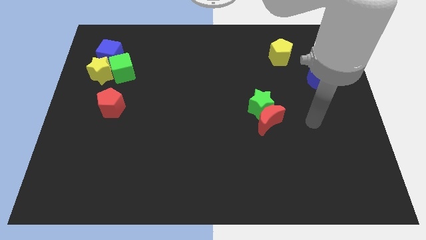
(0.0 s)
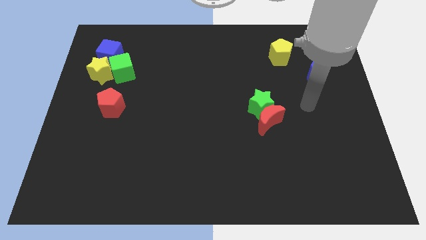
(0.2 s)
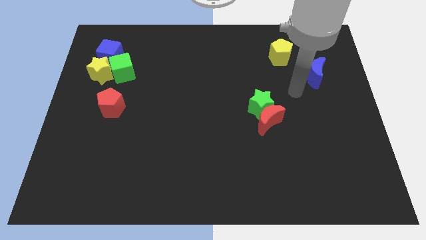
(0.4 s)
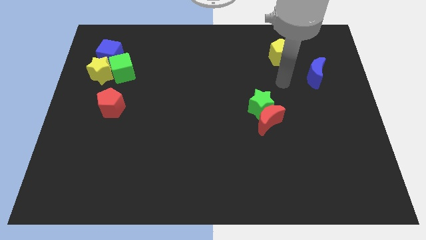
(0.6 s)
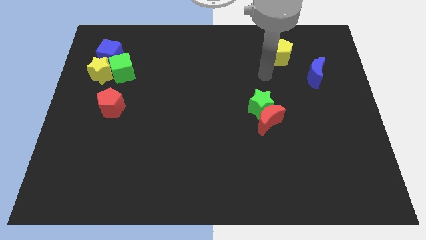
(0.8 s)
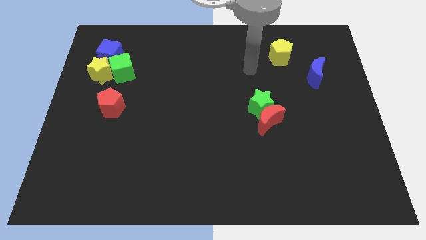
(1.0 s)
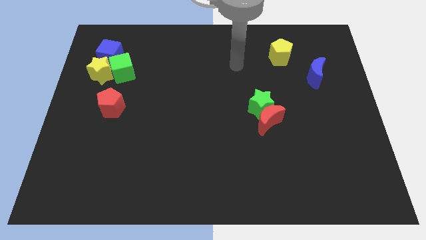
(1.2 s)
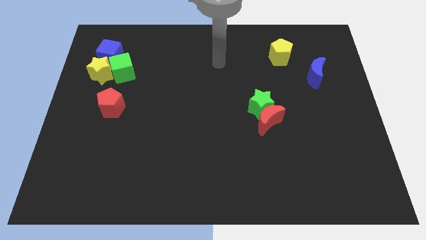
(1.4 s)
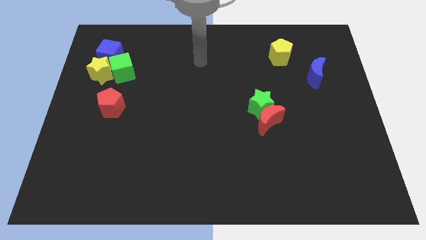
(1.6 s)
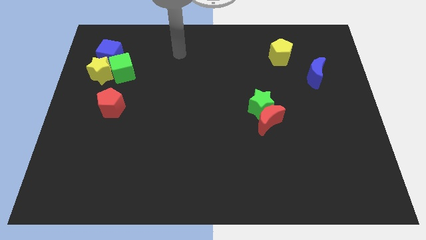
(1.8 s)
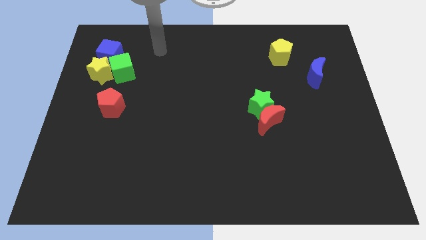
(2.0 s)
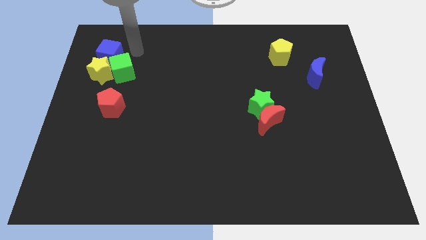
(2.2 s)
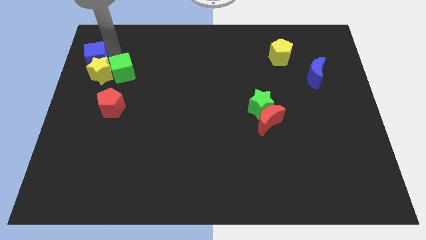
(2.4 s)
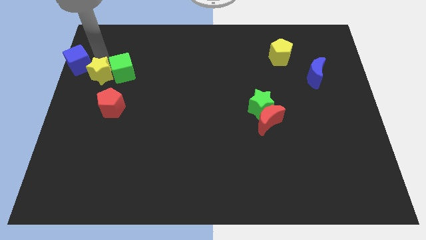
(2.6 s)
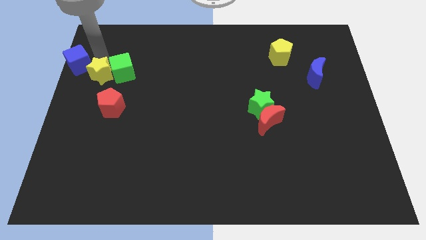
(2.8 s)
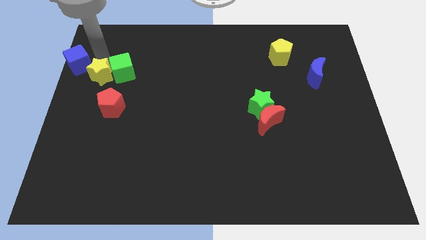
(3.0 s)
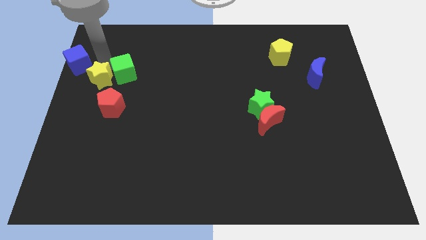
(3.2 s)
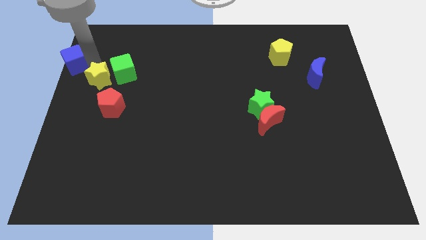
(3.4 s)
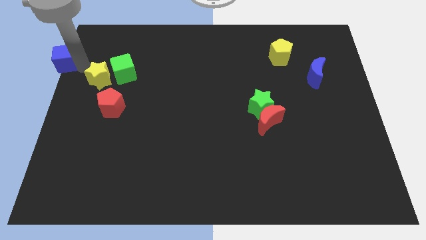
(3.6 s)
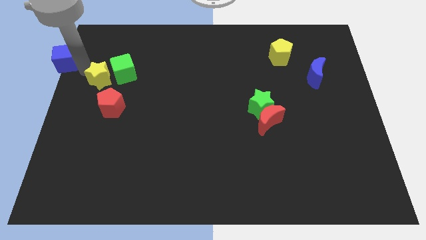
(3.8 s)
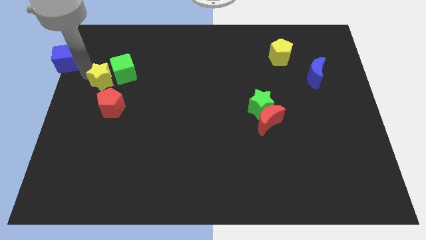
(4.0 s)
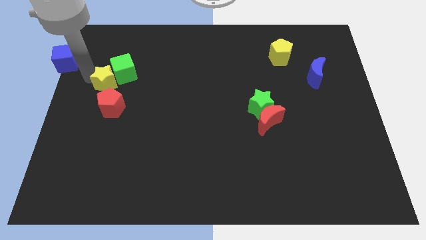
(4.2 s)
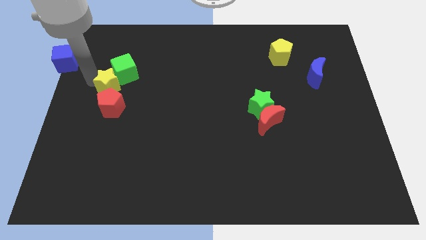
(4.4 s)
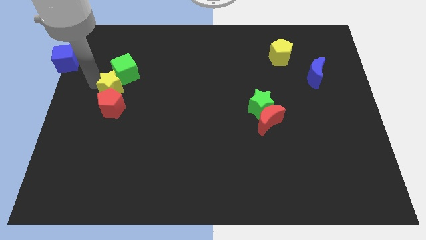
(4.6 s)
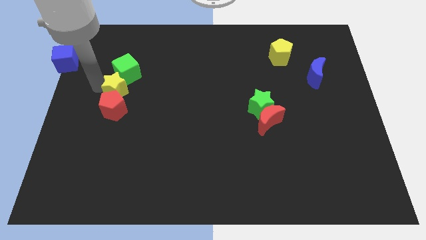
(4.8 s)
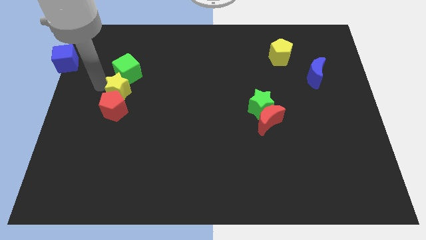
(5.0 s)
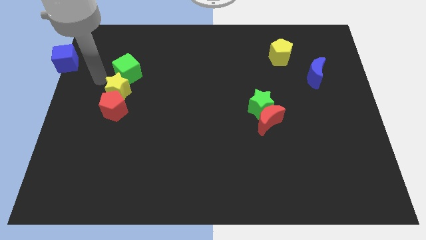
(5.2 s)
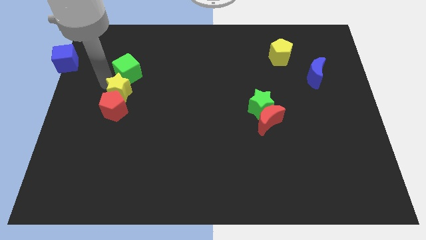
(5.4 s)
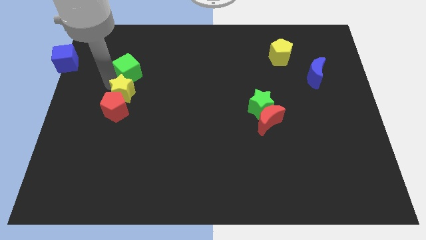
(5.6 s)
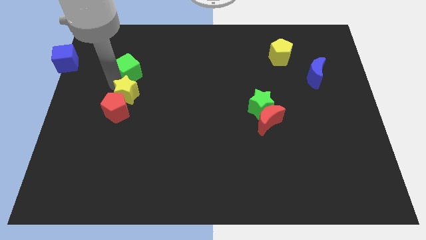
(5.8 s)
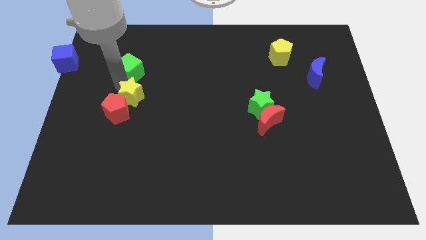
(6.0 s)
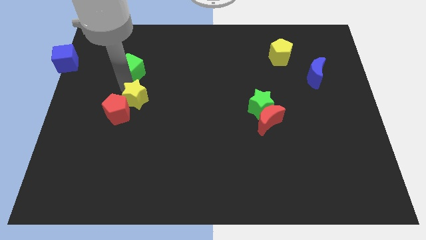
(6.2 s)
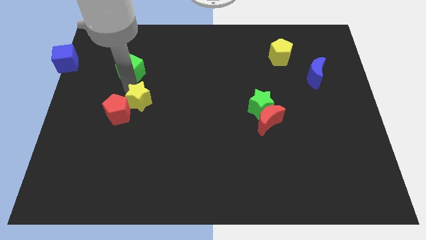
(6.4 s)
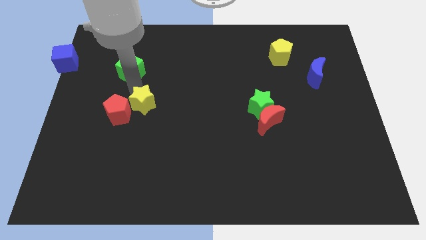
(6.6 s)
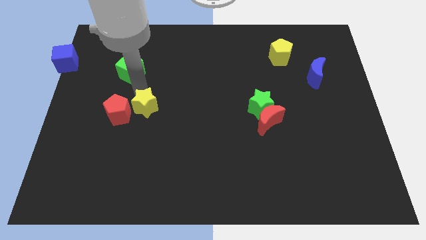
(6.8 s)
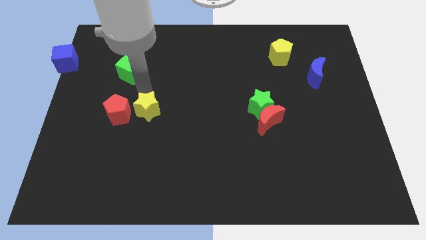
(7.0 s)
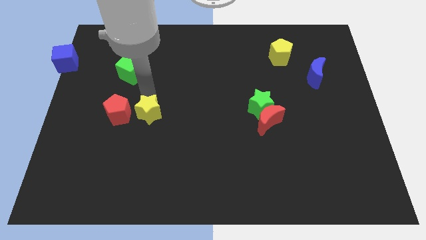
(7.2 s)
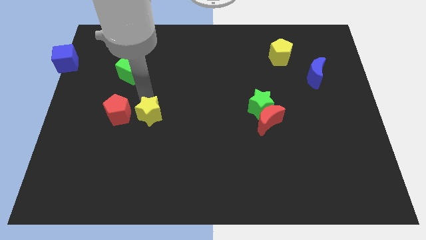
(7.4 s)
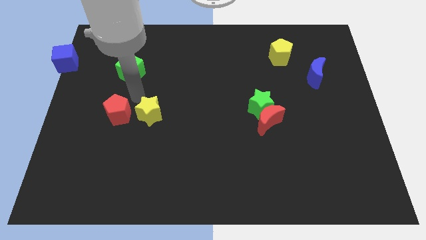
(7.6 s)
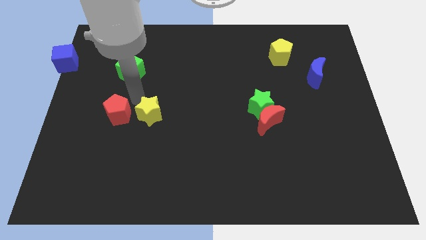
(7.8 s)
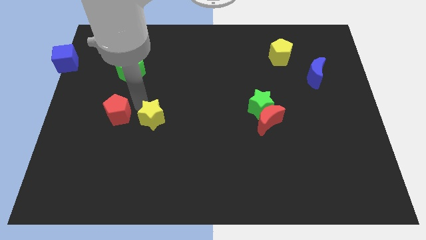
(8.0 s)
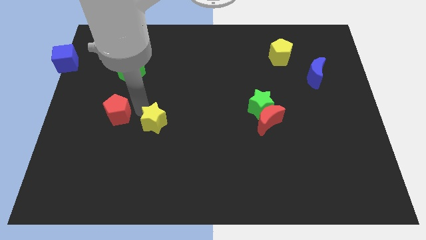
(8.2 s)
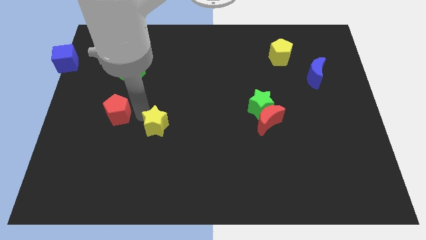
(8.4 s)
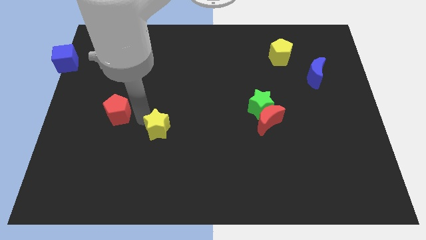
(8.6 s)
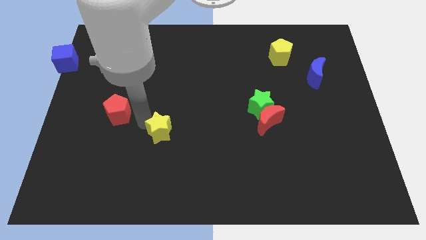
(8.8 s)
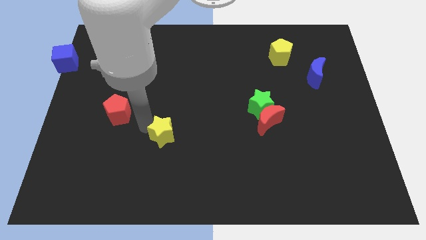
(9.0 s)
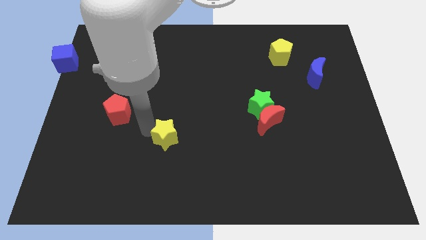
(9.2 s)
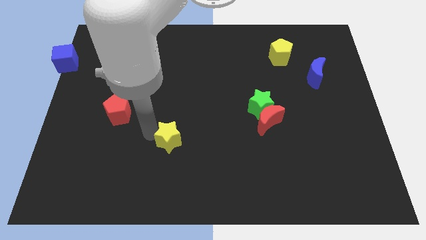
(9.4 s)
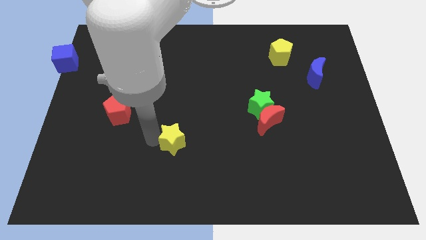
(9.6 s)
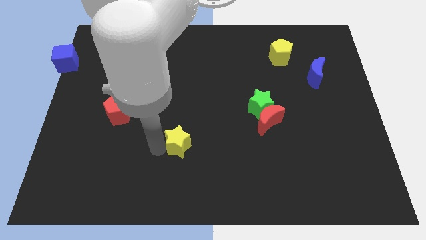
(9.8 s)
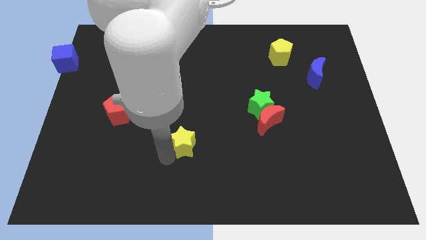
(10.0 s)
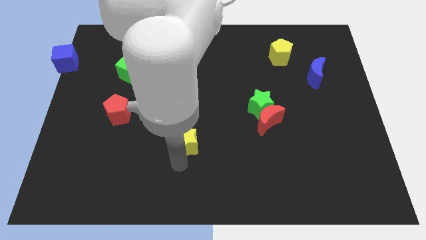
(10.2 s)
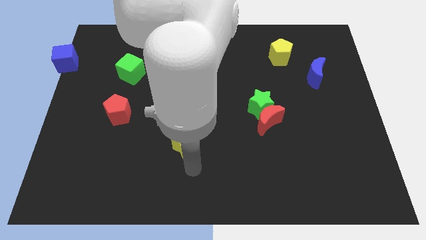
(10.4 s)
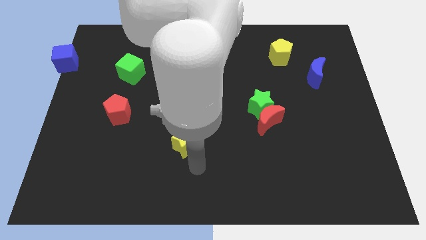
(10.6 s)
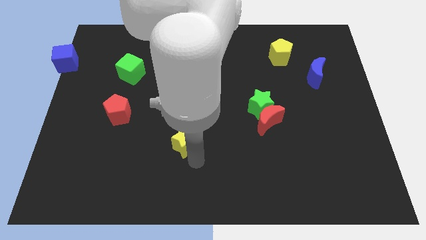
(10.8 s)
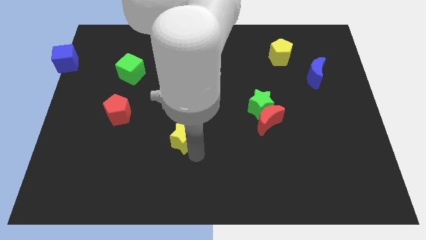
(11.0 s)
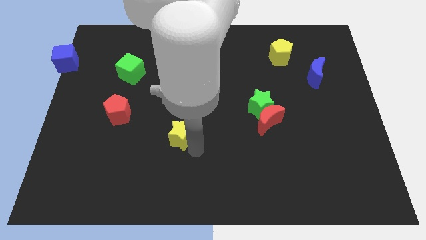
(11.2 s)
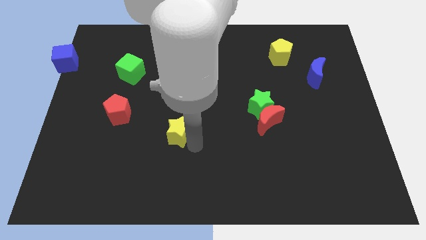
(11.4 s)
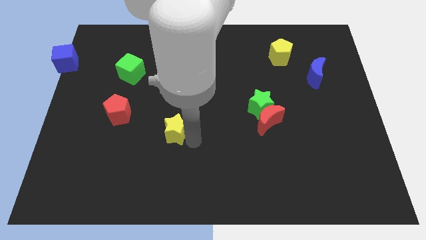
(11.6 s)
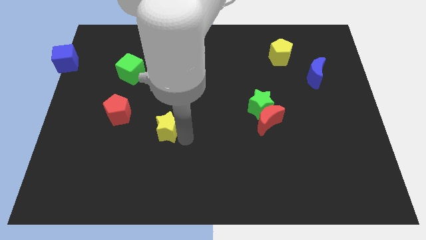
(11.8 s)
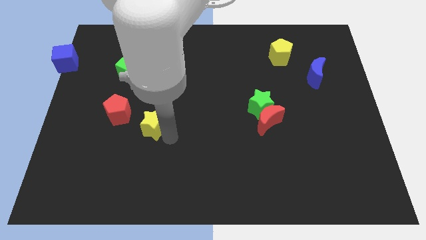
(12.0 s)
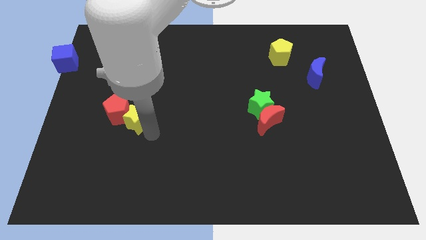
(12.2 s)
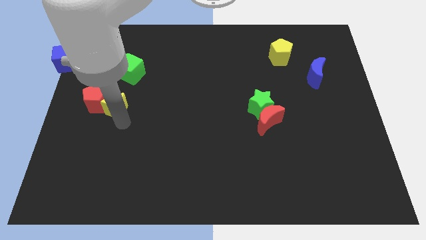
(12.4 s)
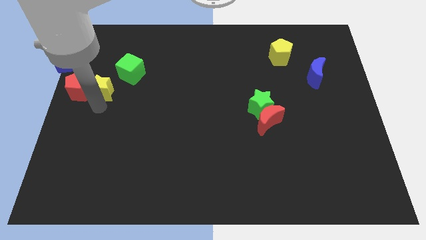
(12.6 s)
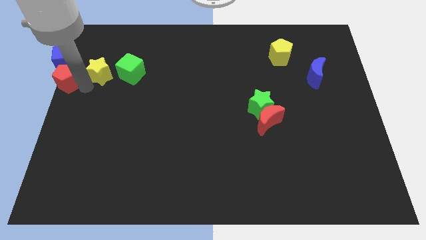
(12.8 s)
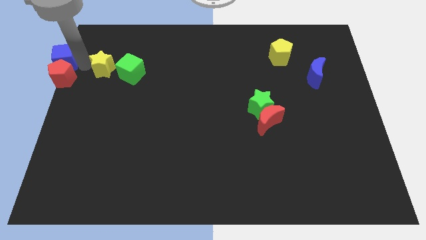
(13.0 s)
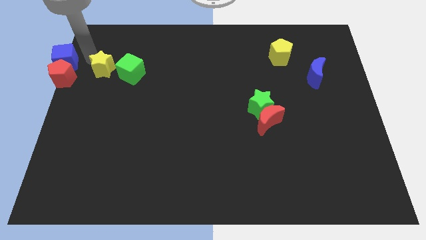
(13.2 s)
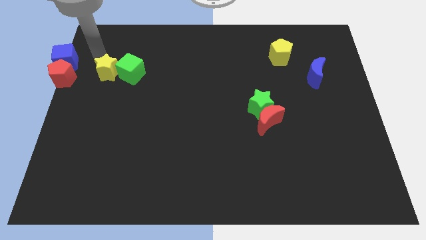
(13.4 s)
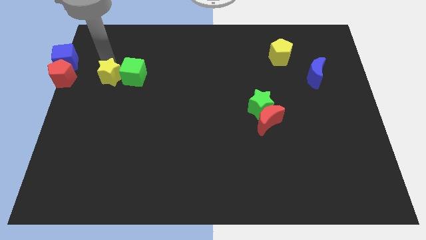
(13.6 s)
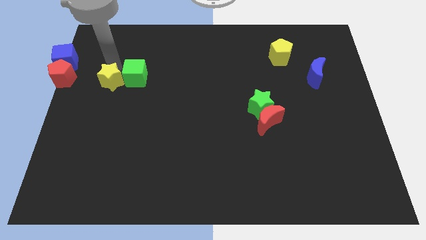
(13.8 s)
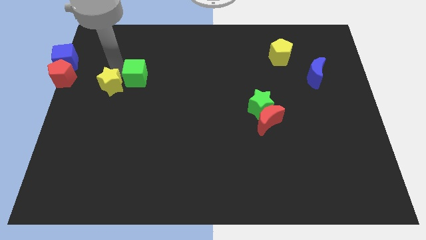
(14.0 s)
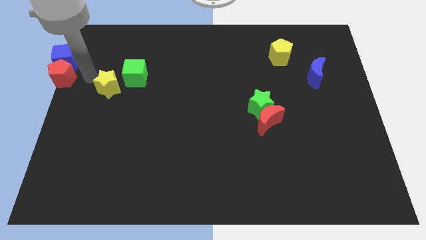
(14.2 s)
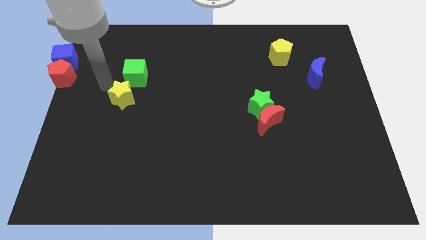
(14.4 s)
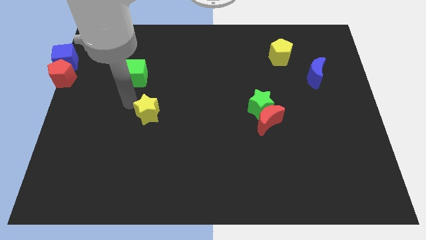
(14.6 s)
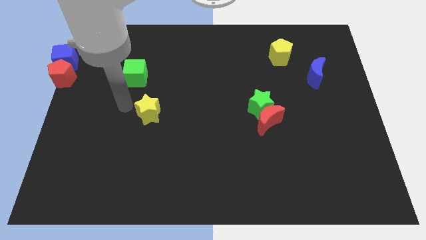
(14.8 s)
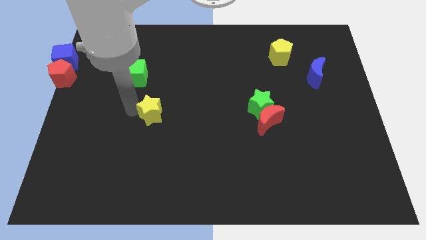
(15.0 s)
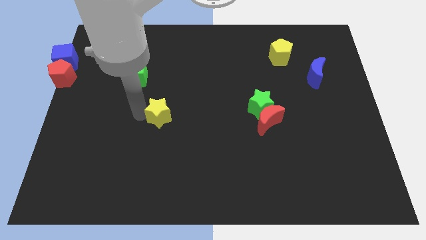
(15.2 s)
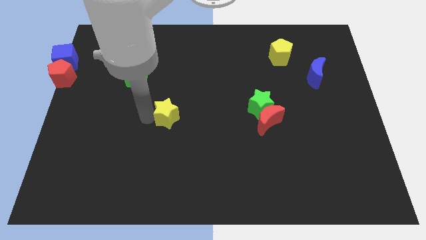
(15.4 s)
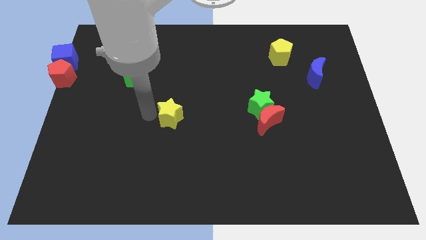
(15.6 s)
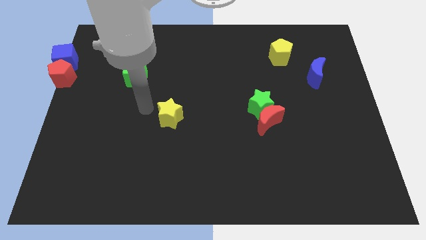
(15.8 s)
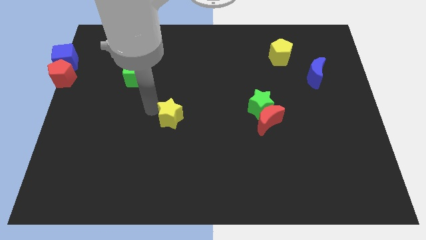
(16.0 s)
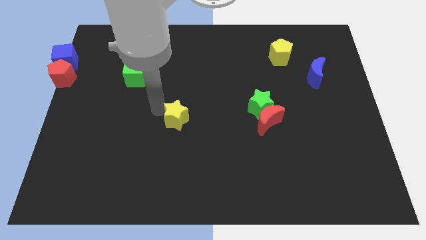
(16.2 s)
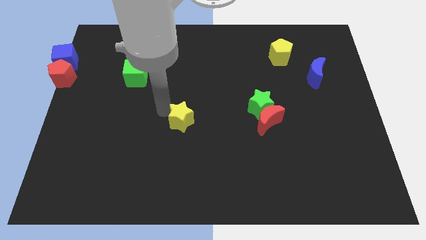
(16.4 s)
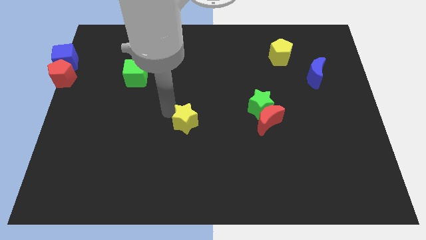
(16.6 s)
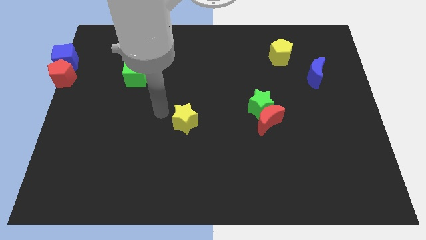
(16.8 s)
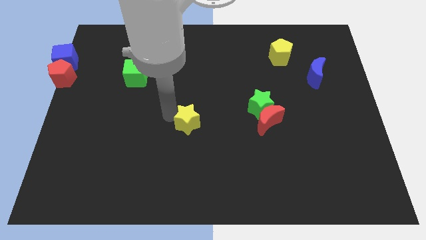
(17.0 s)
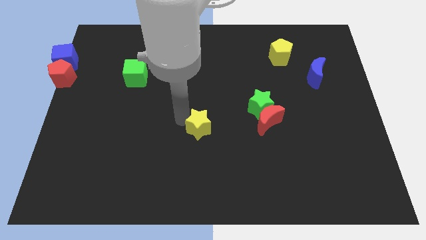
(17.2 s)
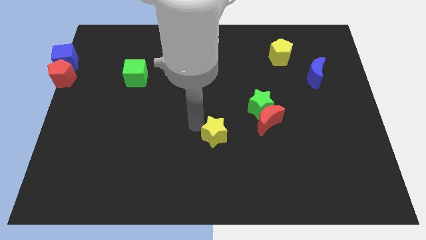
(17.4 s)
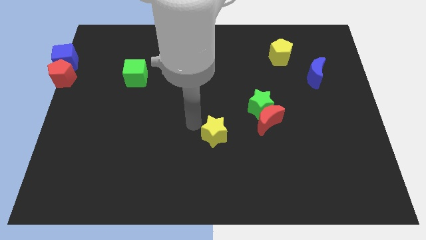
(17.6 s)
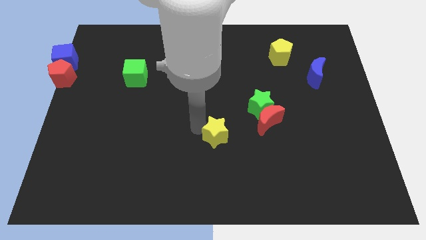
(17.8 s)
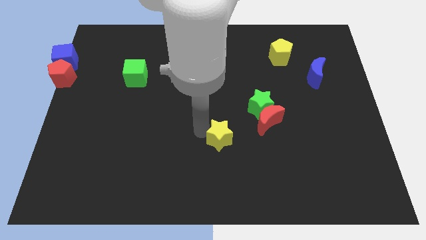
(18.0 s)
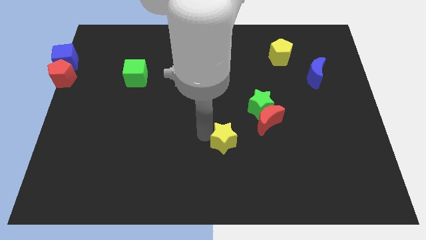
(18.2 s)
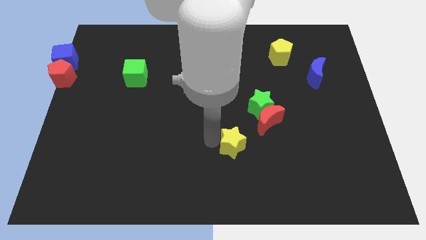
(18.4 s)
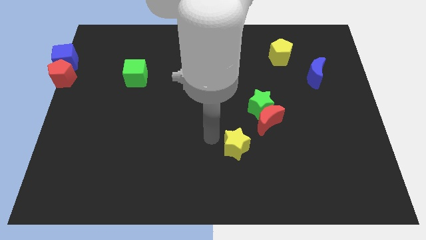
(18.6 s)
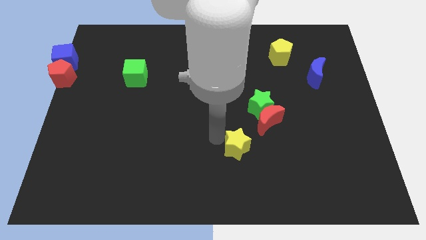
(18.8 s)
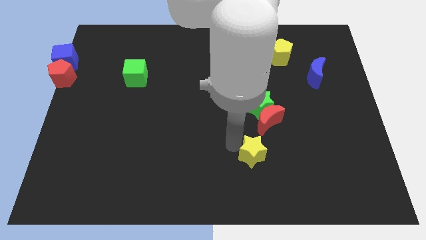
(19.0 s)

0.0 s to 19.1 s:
move the yellow star to the bottom of the red moon
